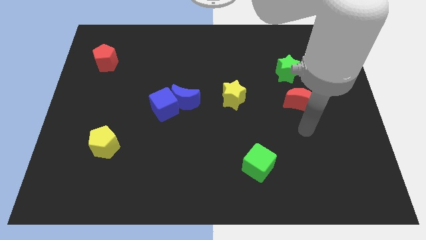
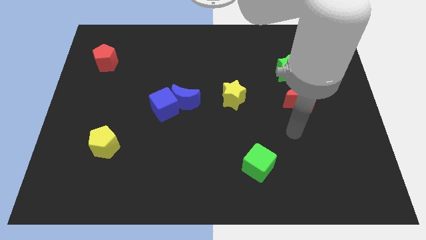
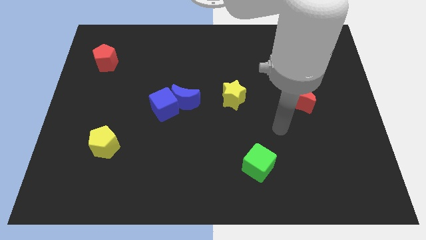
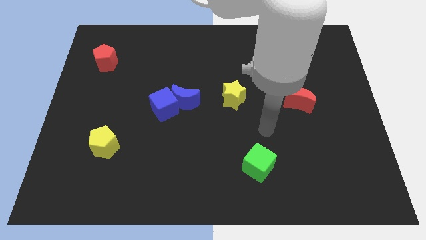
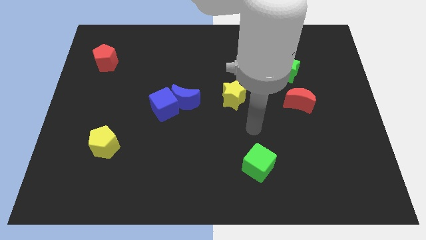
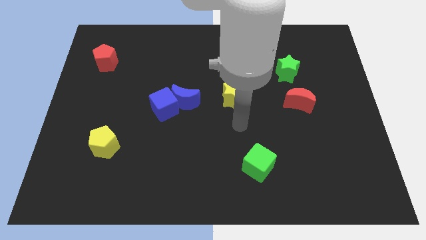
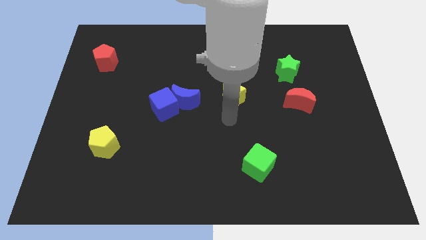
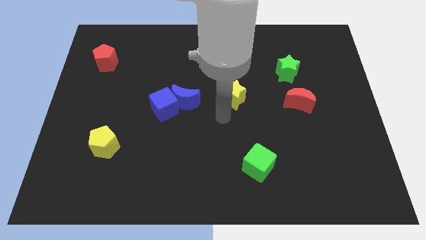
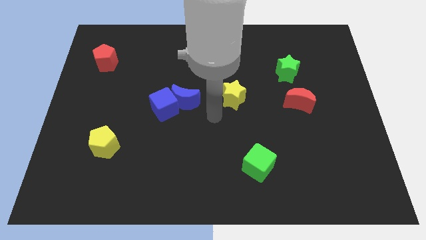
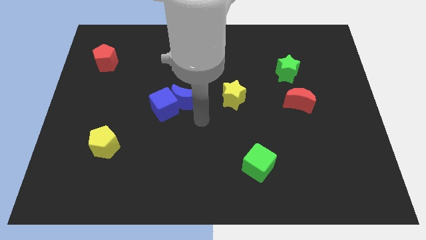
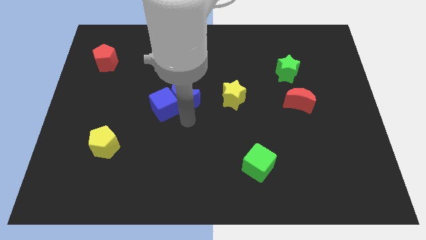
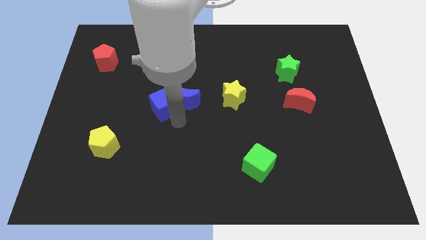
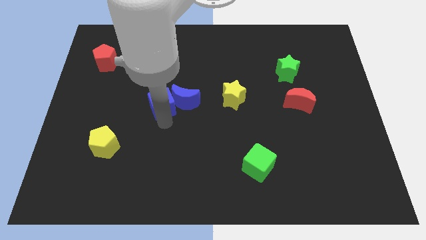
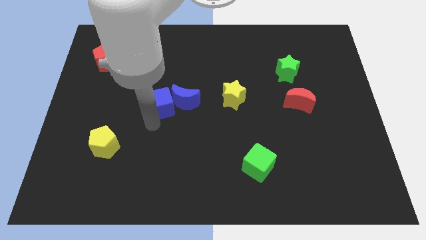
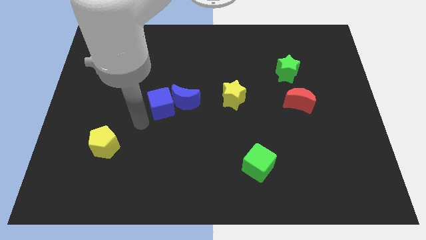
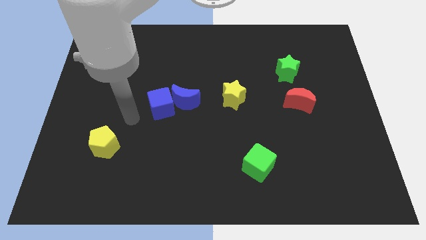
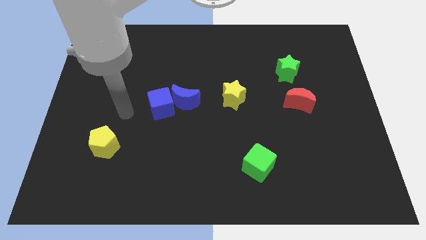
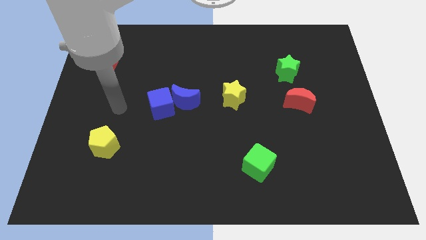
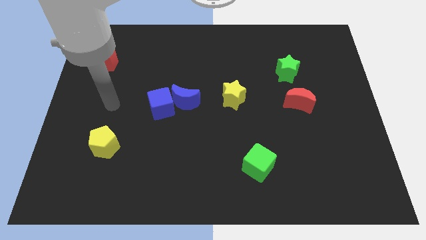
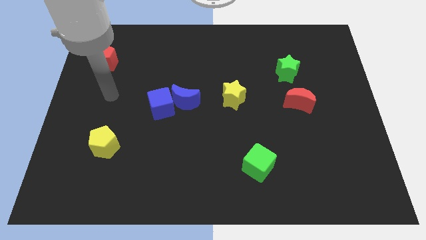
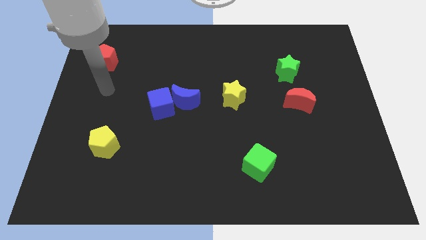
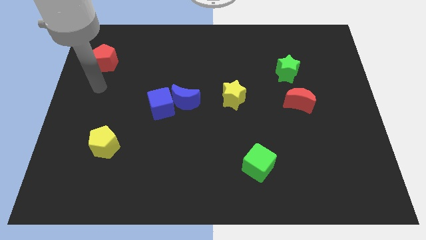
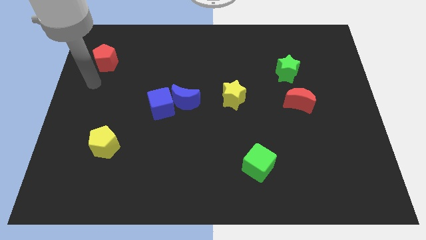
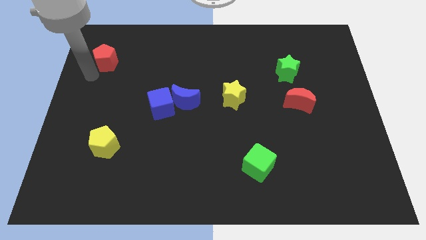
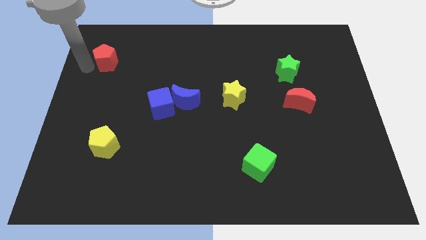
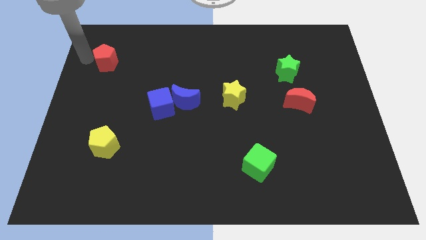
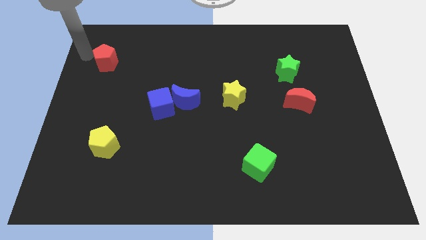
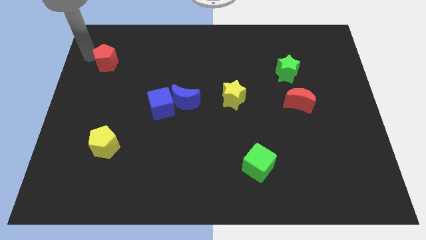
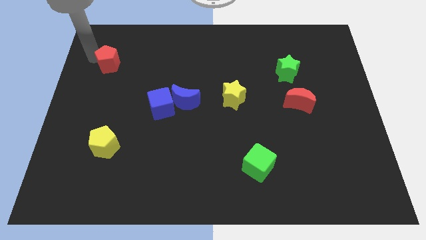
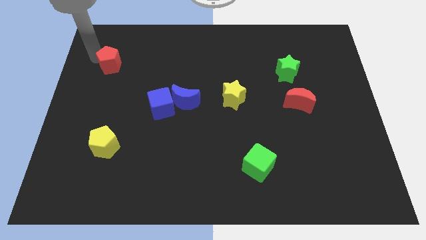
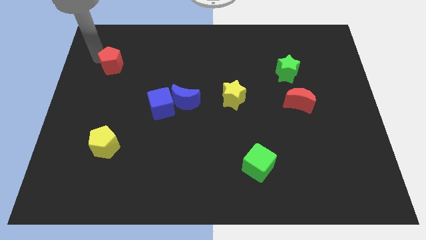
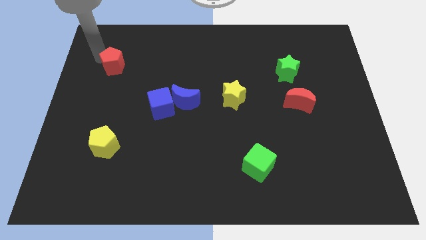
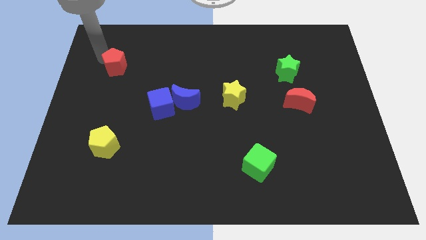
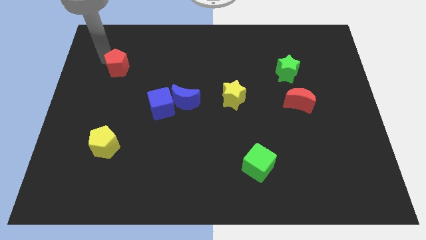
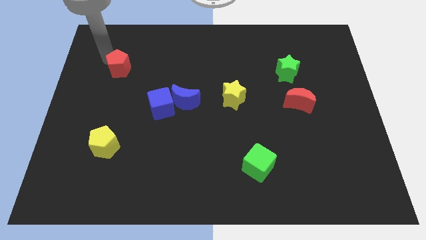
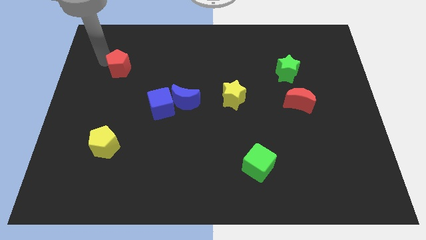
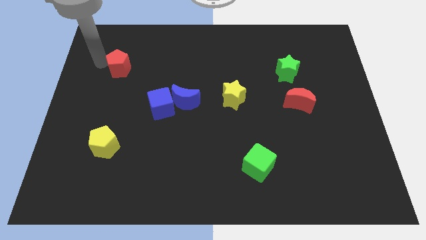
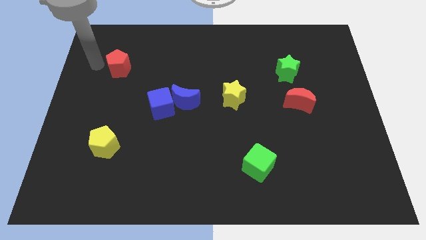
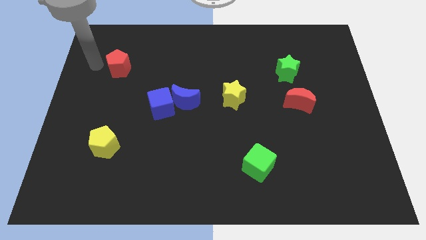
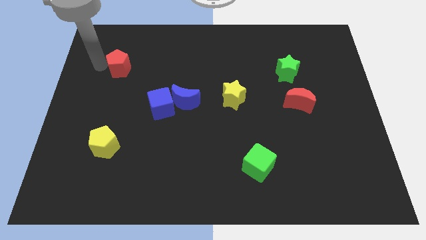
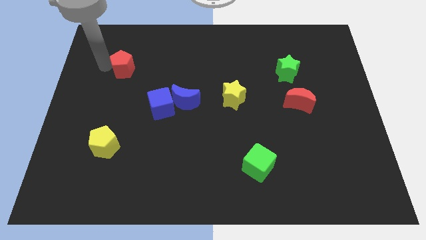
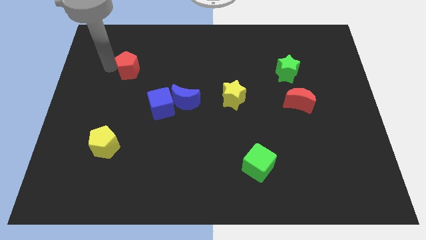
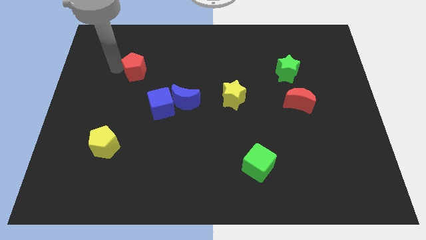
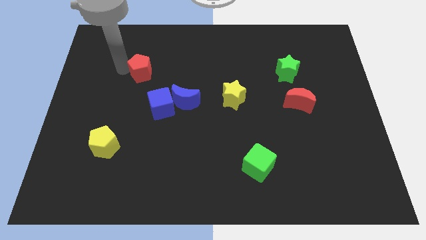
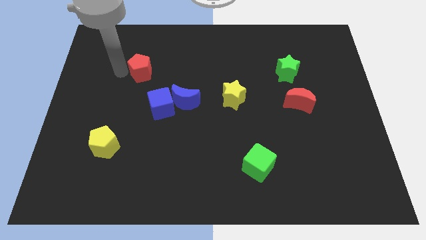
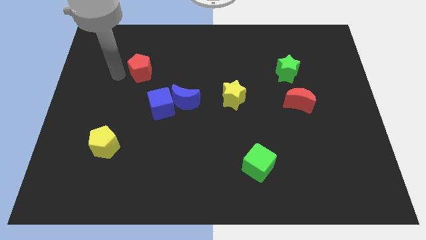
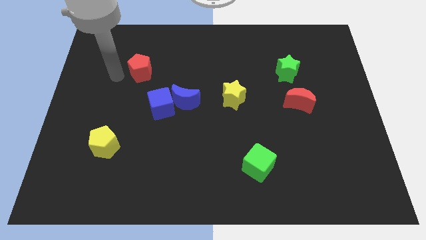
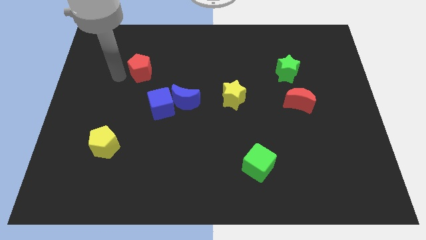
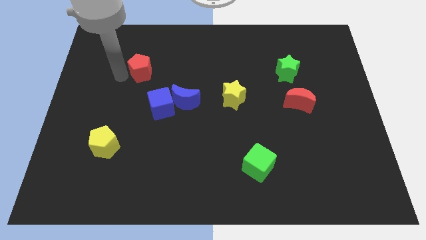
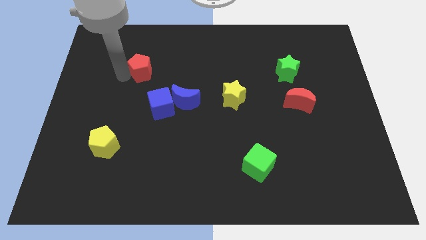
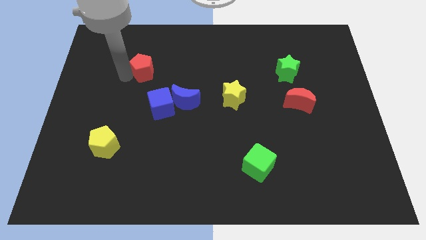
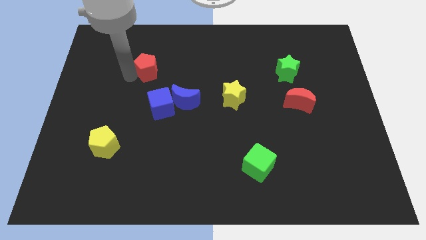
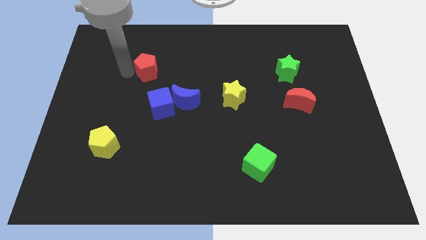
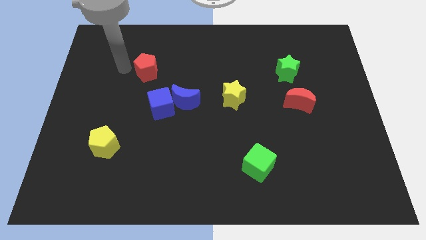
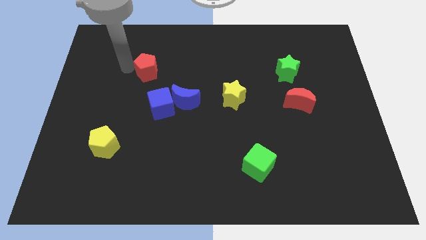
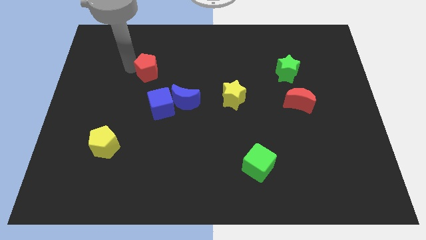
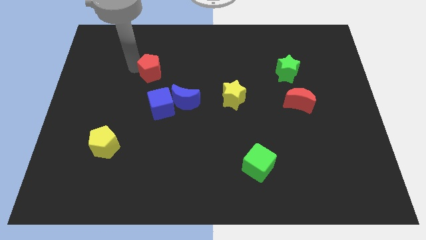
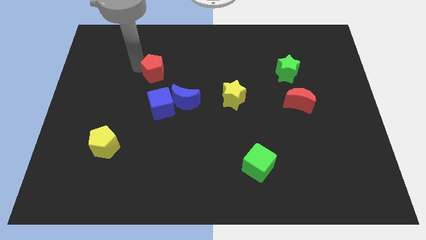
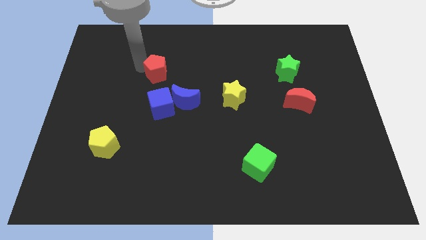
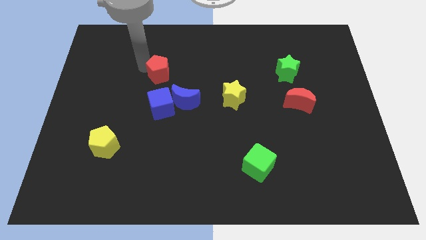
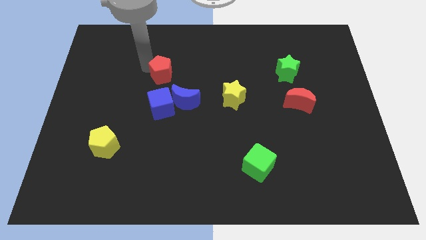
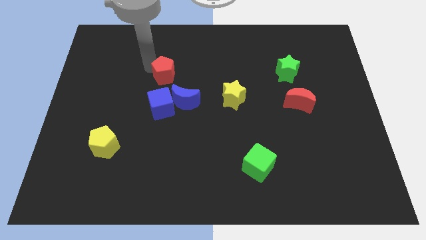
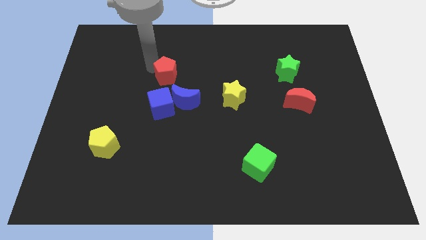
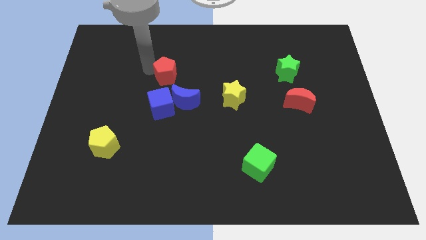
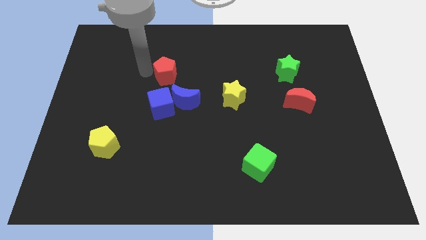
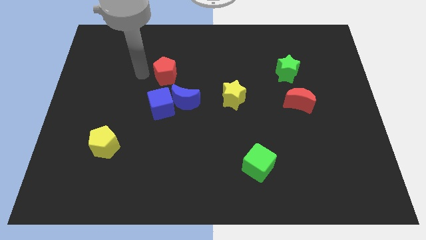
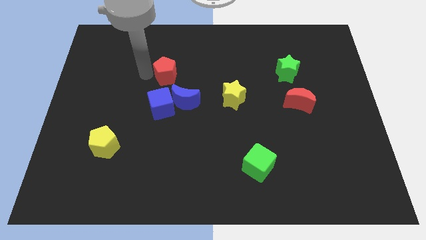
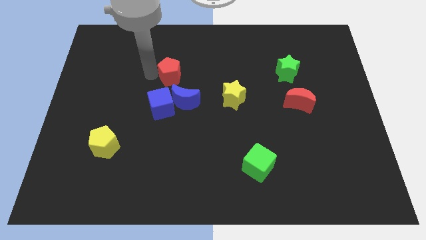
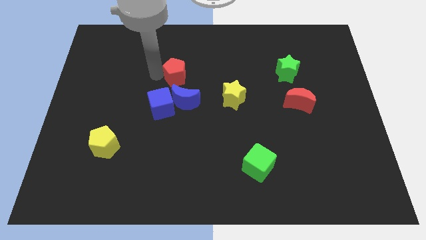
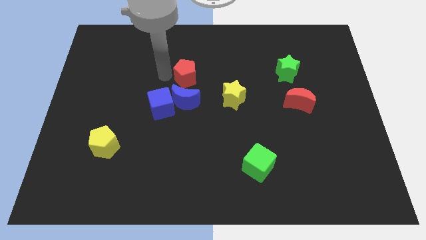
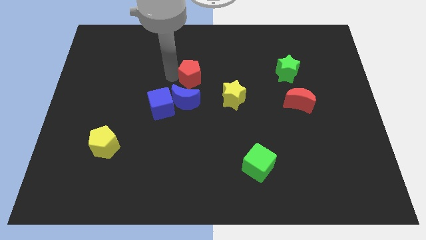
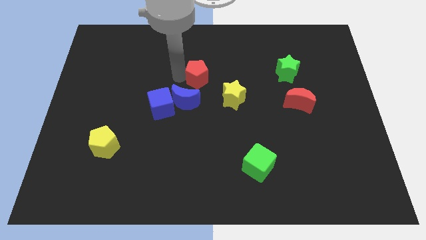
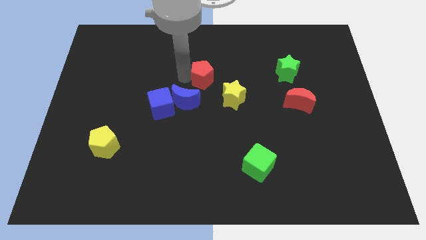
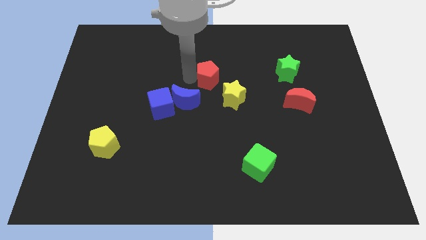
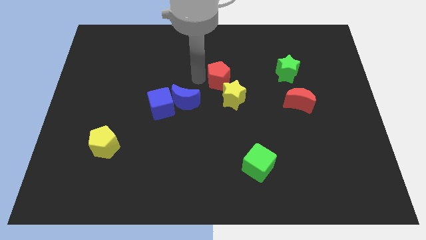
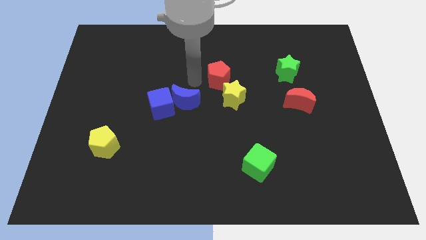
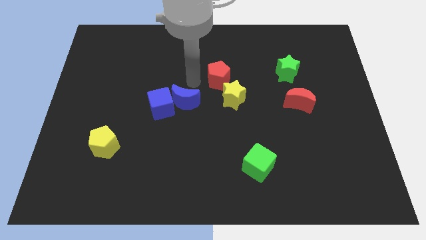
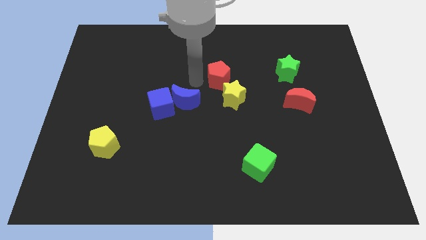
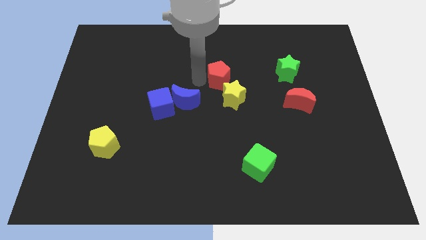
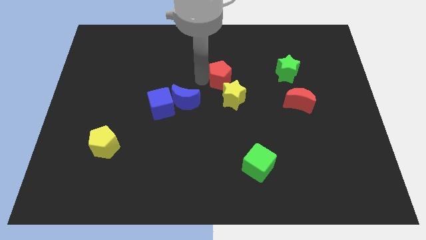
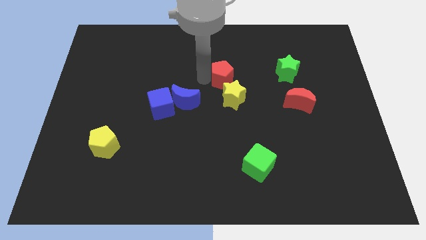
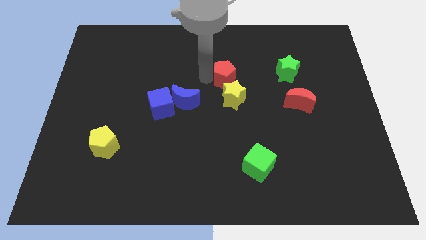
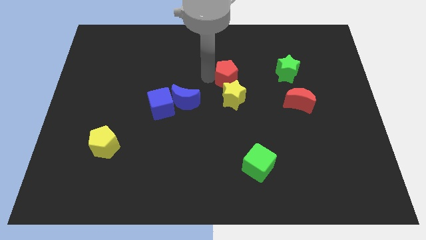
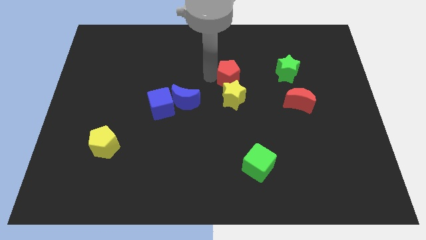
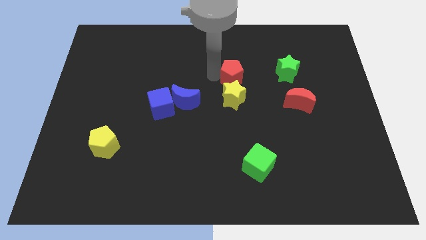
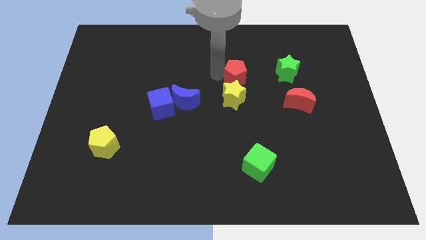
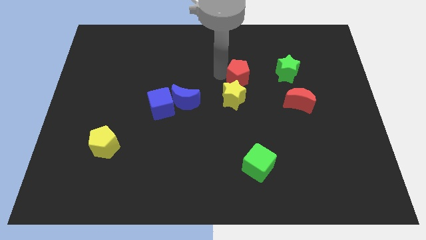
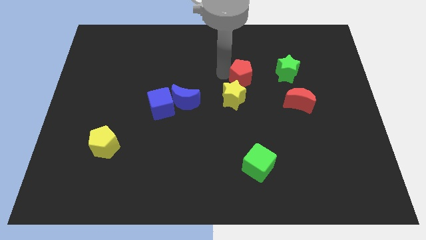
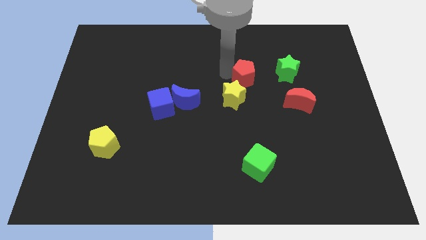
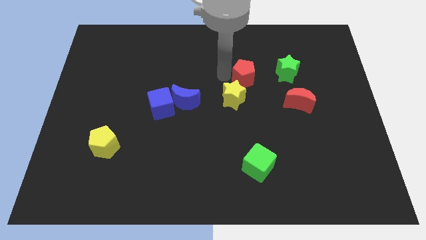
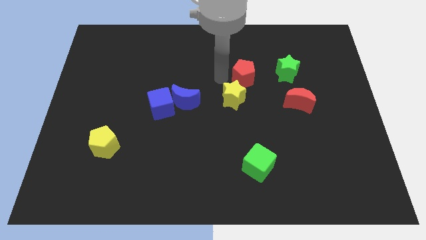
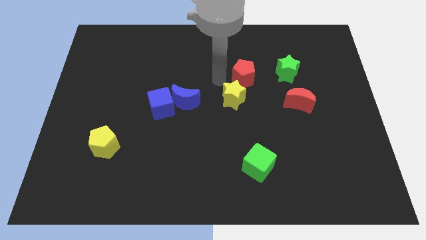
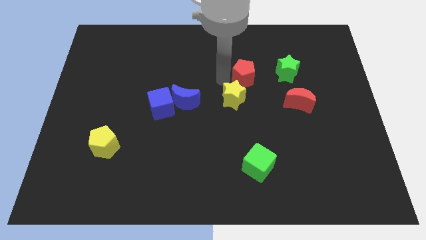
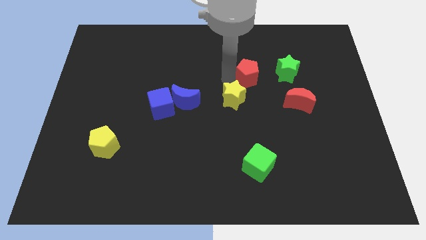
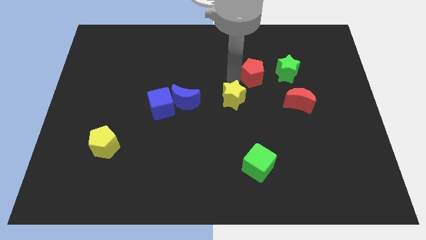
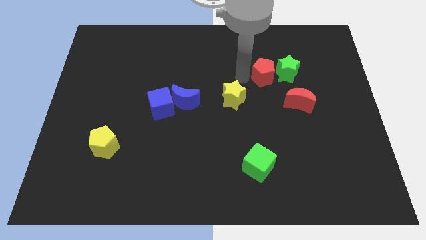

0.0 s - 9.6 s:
move the red pentagon to the green star
